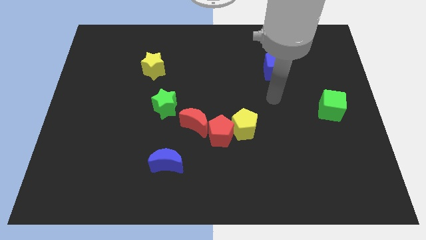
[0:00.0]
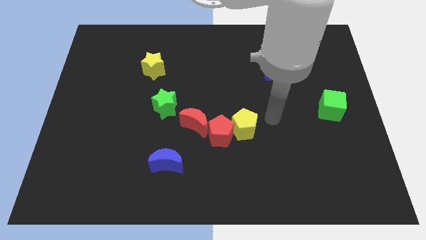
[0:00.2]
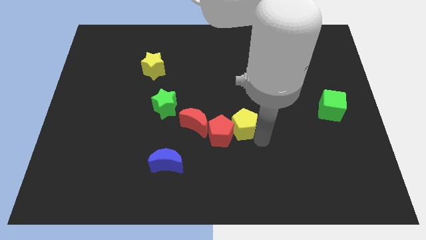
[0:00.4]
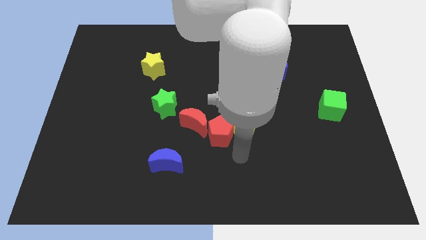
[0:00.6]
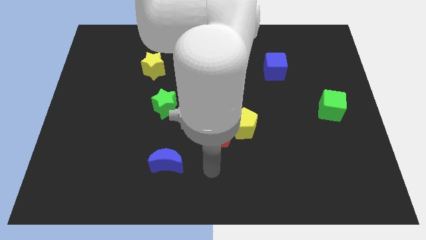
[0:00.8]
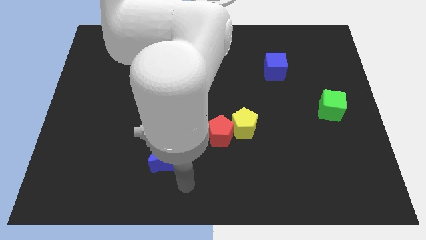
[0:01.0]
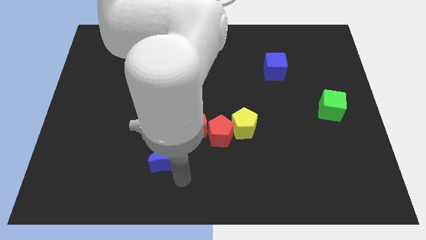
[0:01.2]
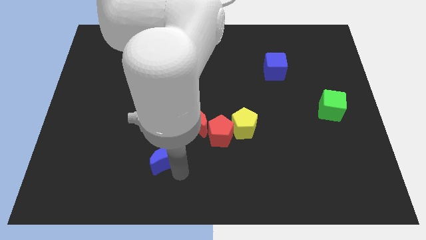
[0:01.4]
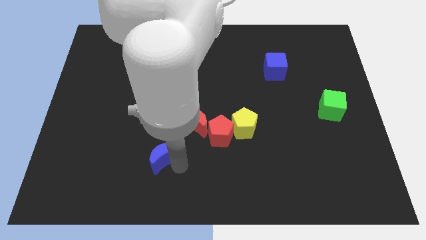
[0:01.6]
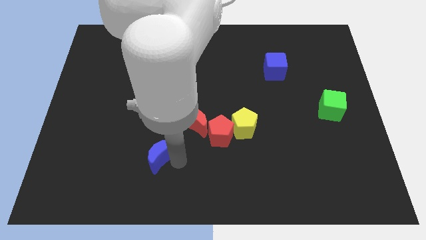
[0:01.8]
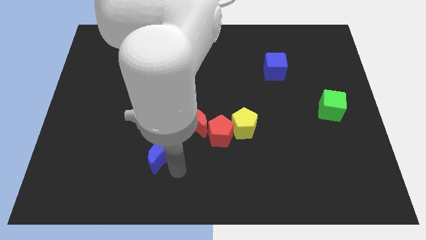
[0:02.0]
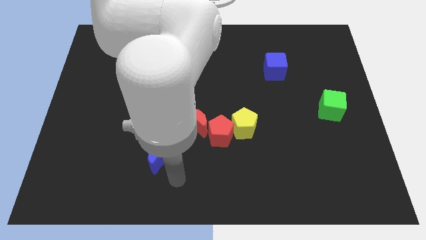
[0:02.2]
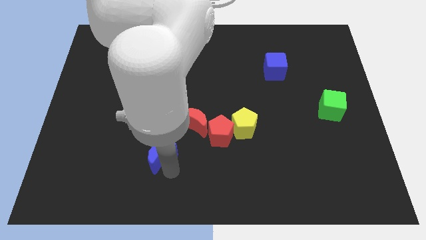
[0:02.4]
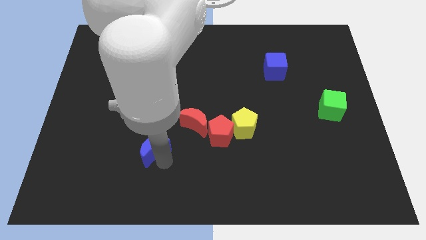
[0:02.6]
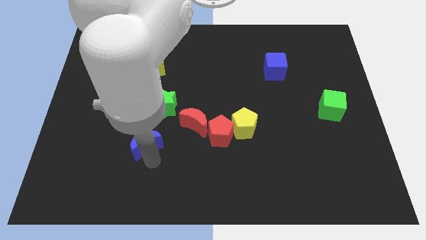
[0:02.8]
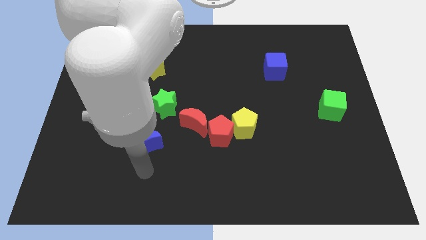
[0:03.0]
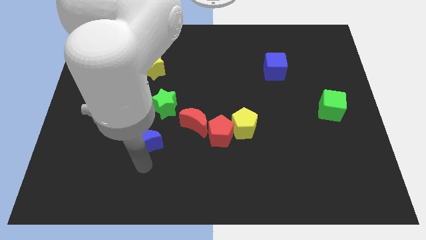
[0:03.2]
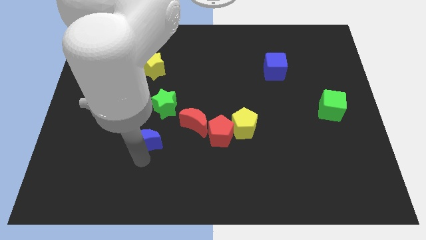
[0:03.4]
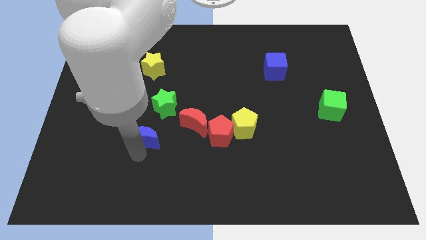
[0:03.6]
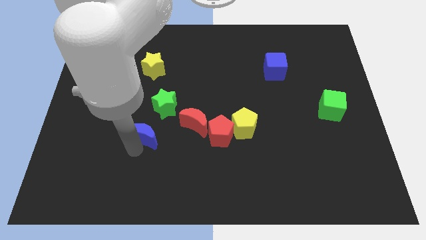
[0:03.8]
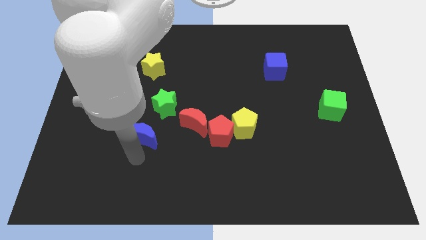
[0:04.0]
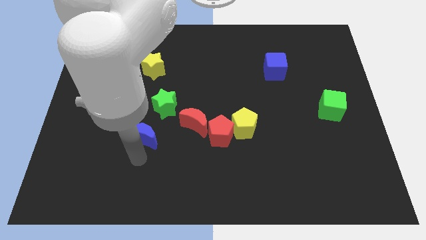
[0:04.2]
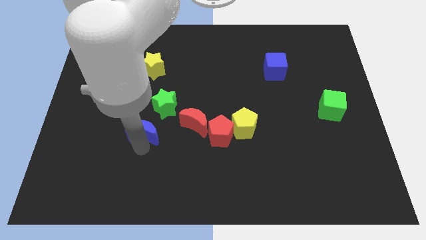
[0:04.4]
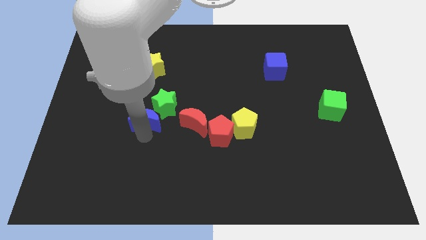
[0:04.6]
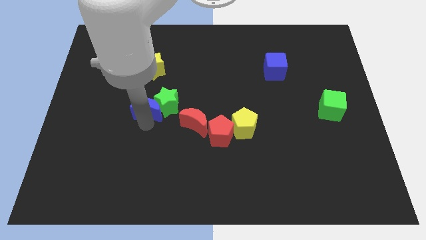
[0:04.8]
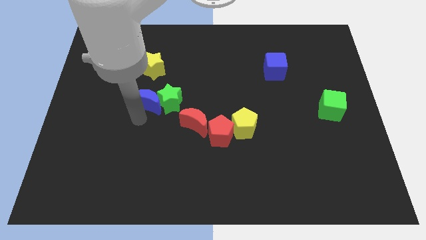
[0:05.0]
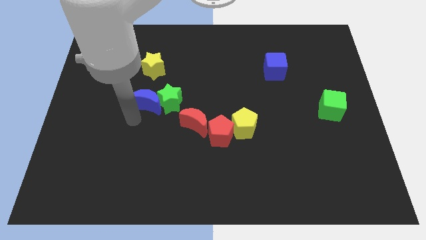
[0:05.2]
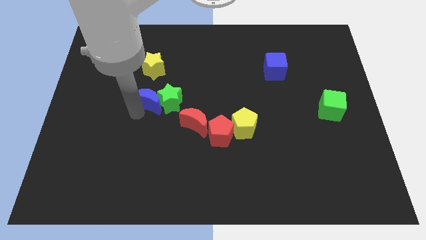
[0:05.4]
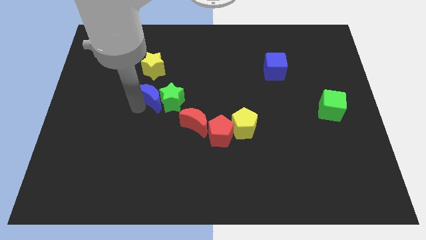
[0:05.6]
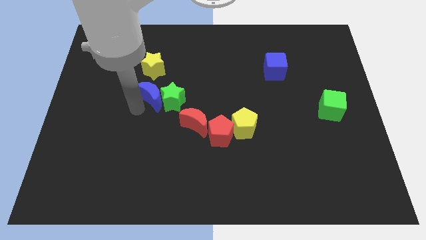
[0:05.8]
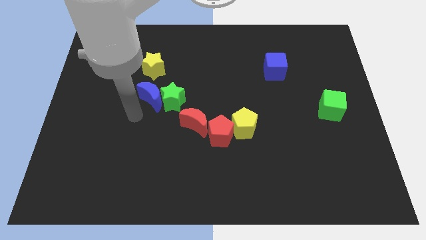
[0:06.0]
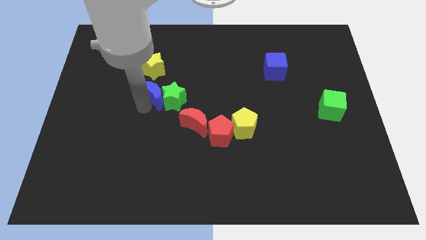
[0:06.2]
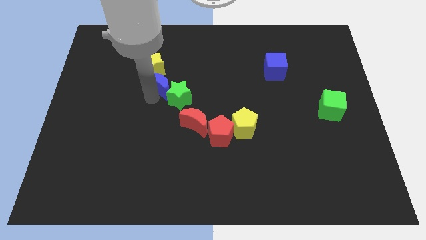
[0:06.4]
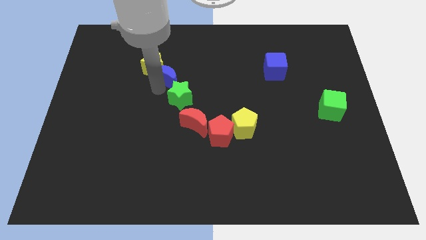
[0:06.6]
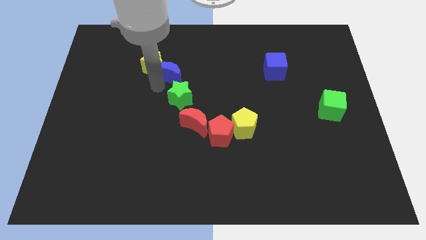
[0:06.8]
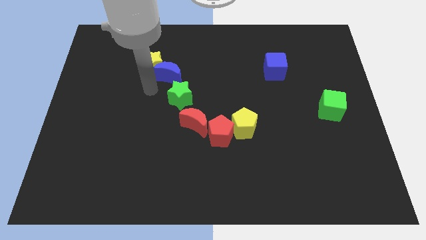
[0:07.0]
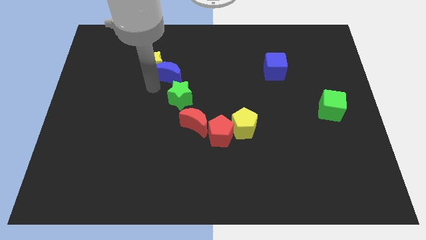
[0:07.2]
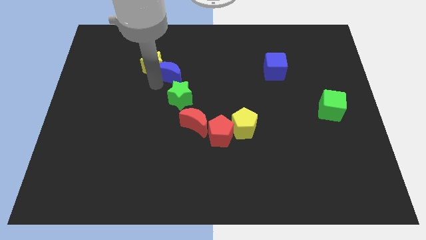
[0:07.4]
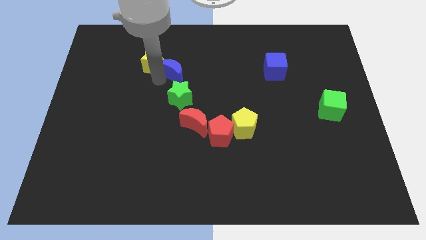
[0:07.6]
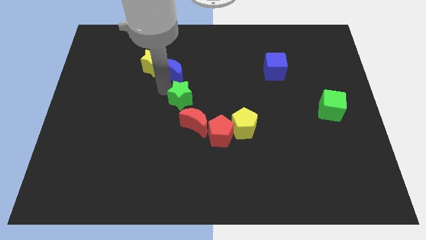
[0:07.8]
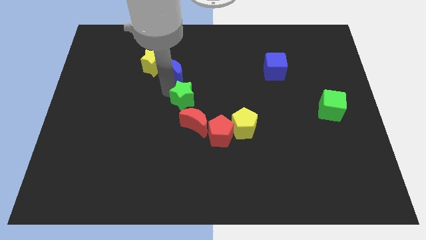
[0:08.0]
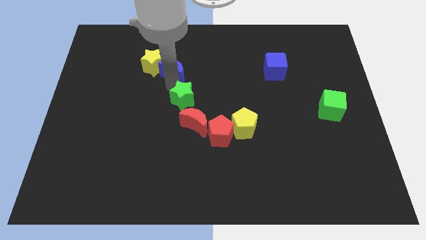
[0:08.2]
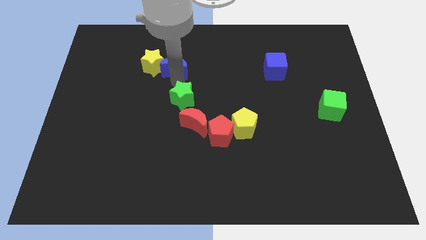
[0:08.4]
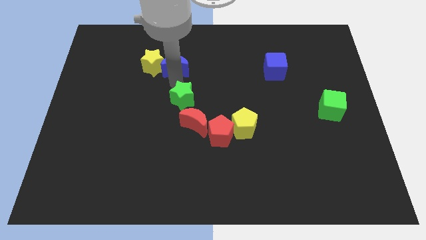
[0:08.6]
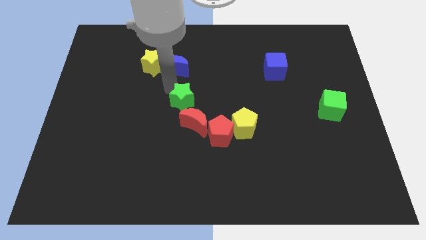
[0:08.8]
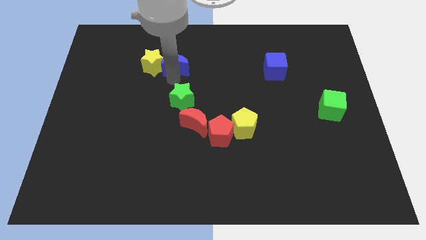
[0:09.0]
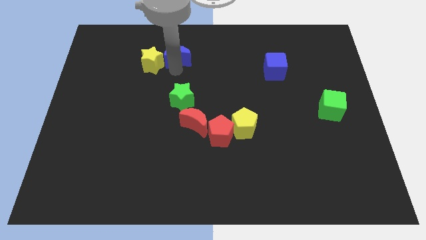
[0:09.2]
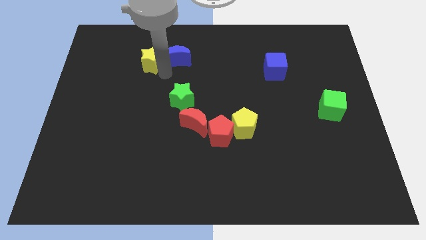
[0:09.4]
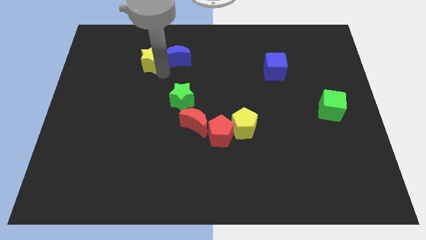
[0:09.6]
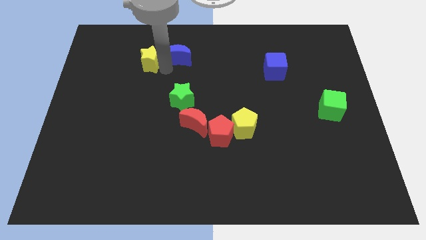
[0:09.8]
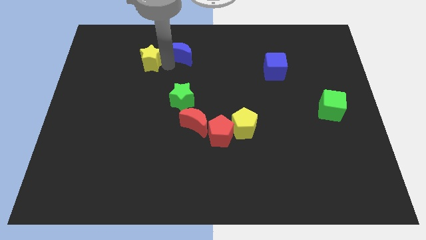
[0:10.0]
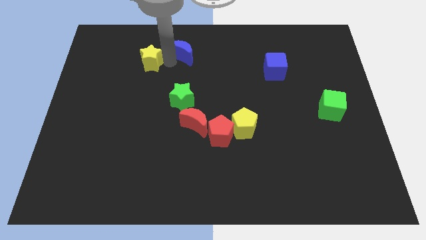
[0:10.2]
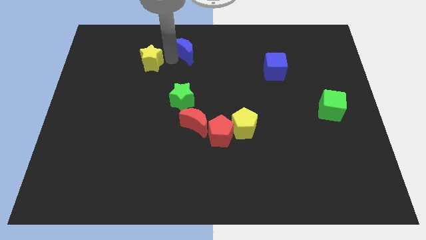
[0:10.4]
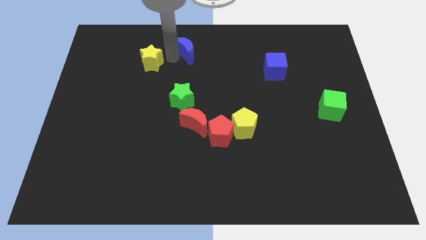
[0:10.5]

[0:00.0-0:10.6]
put the blue moon to the top side
